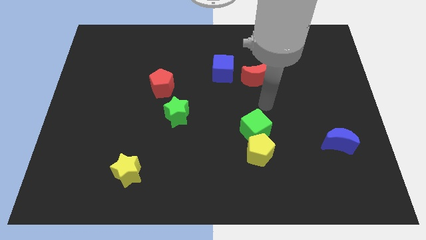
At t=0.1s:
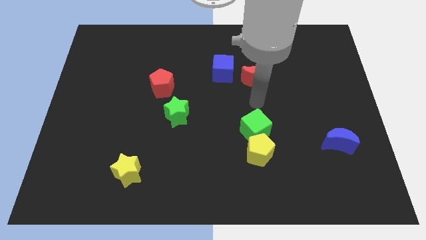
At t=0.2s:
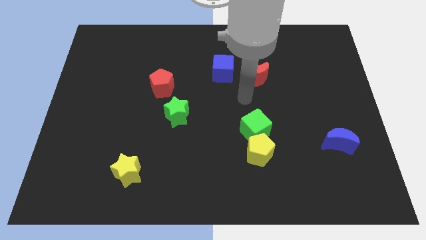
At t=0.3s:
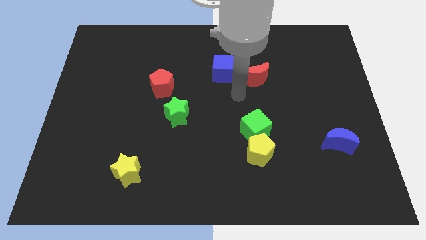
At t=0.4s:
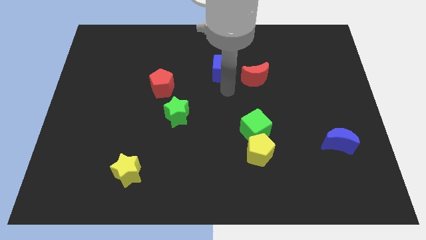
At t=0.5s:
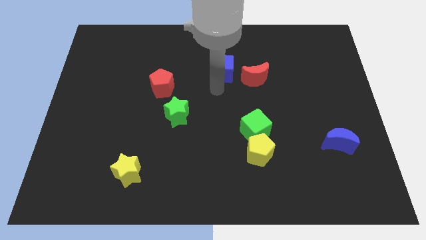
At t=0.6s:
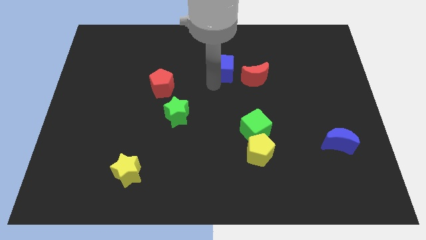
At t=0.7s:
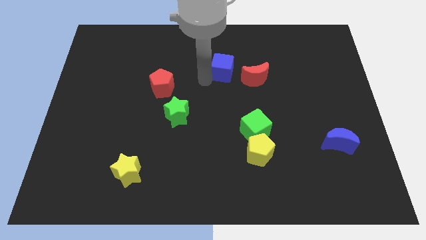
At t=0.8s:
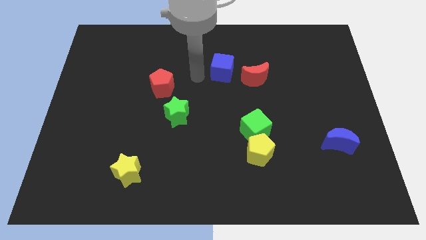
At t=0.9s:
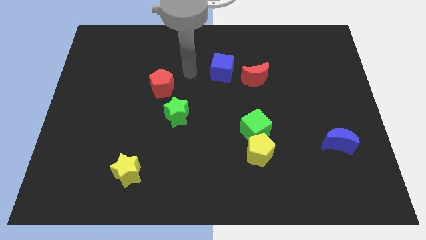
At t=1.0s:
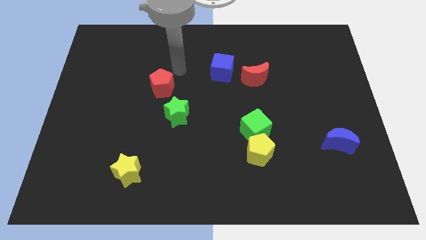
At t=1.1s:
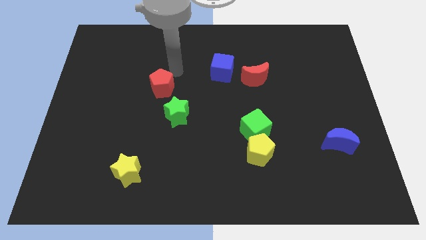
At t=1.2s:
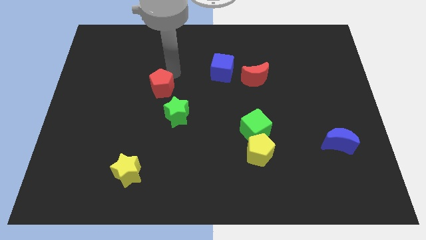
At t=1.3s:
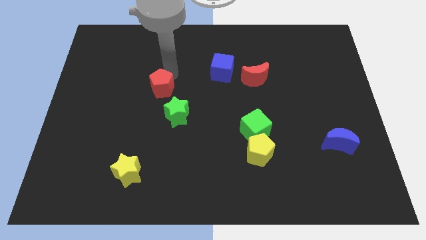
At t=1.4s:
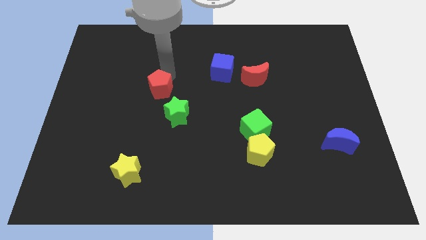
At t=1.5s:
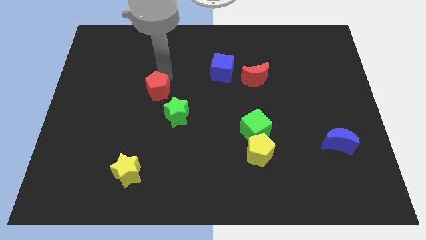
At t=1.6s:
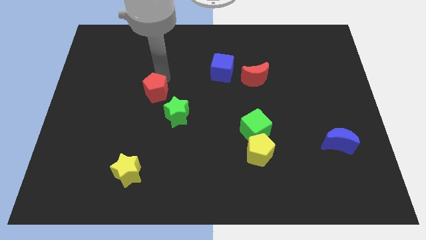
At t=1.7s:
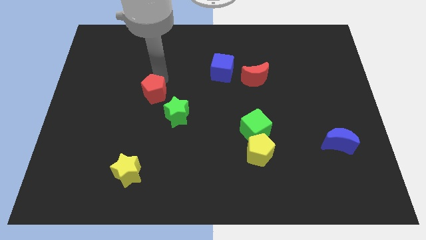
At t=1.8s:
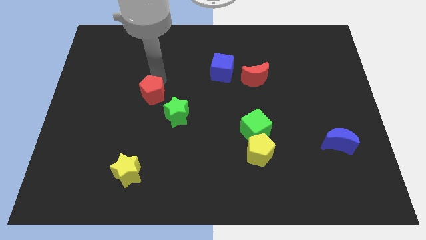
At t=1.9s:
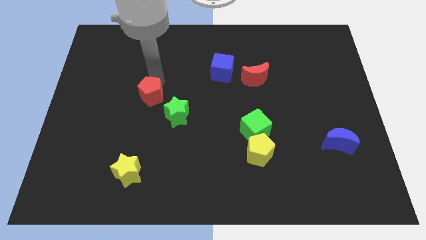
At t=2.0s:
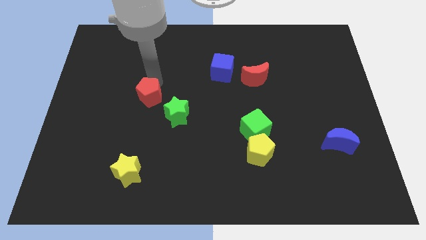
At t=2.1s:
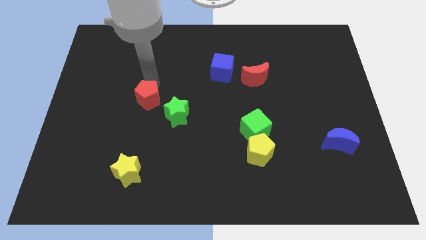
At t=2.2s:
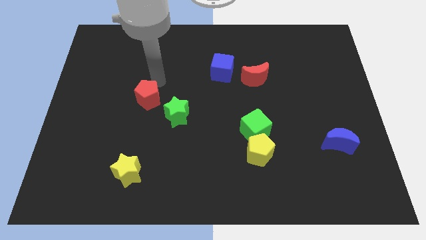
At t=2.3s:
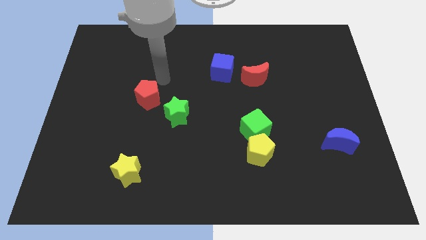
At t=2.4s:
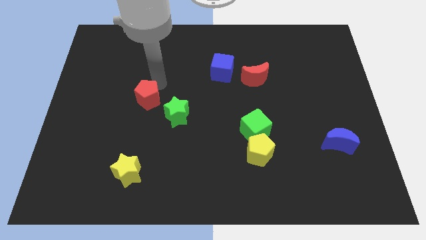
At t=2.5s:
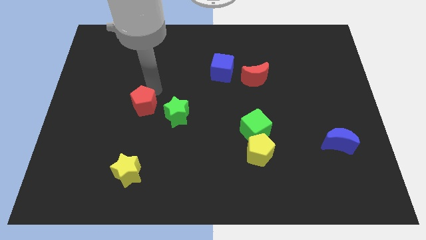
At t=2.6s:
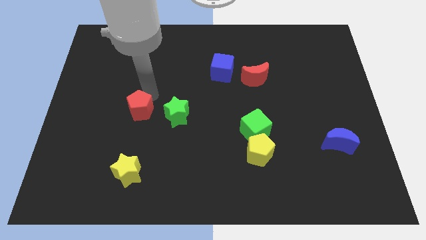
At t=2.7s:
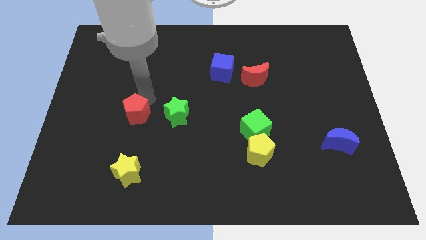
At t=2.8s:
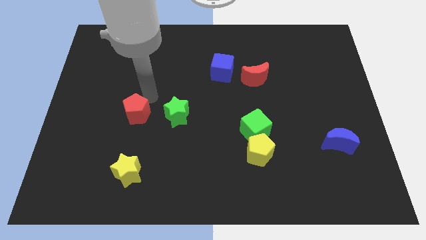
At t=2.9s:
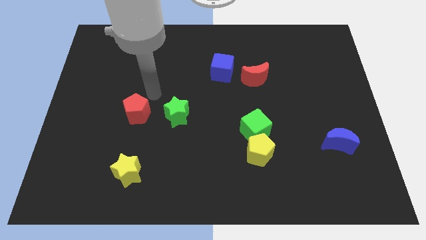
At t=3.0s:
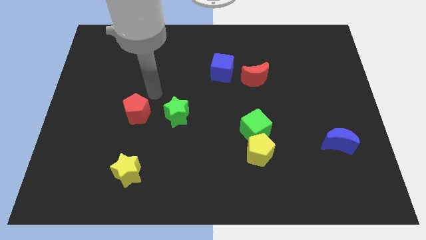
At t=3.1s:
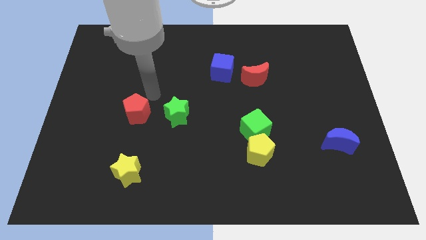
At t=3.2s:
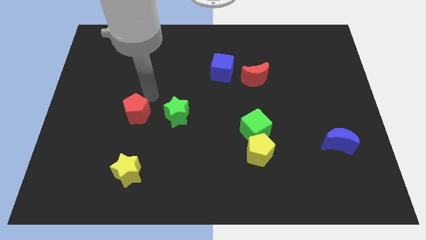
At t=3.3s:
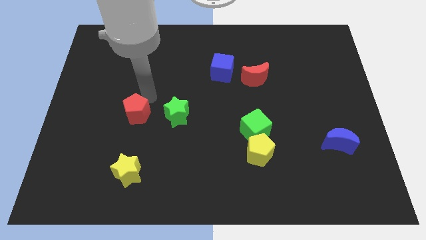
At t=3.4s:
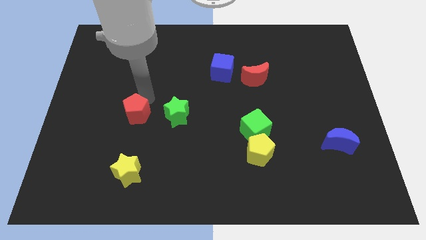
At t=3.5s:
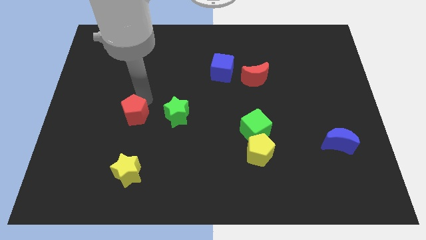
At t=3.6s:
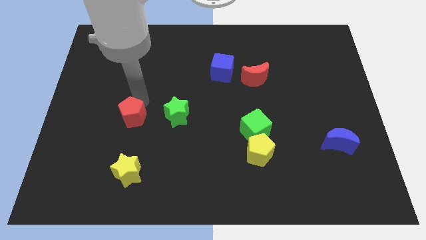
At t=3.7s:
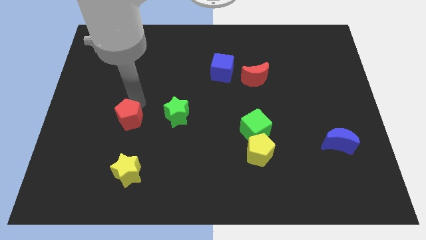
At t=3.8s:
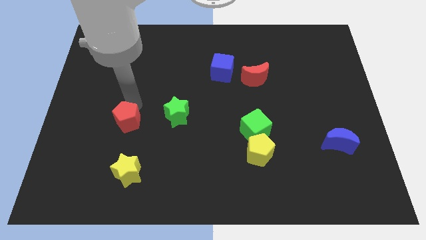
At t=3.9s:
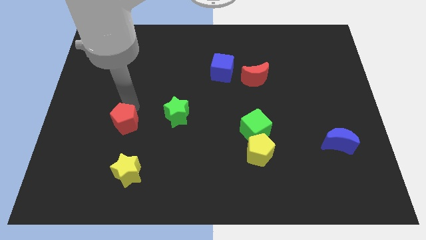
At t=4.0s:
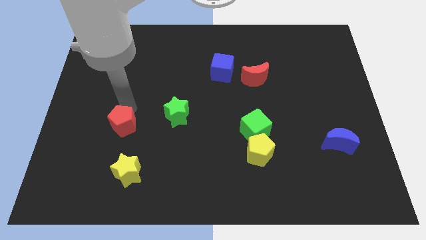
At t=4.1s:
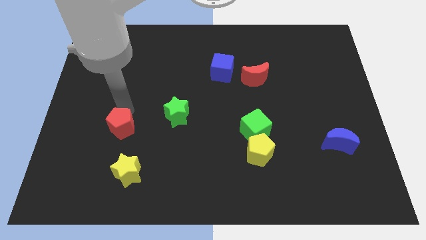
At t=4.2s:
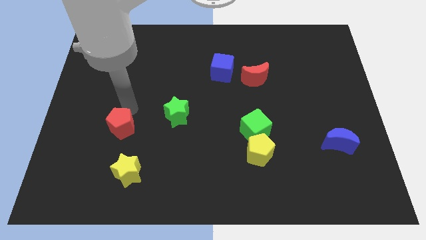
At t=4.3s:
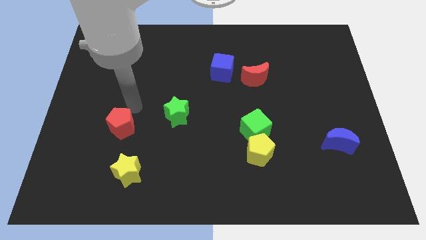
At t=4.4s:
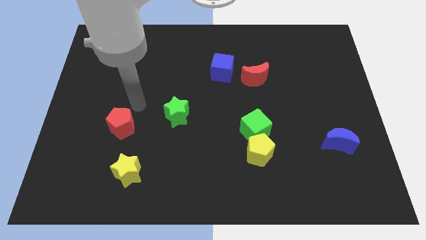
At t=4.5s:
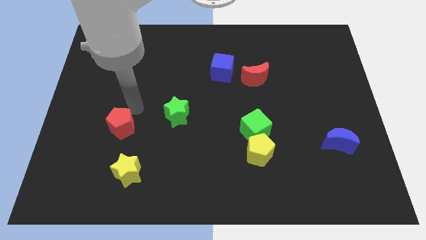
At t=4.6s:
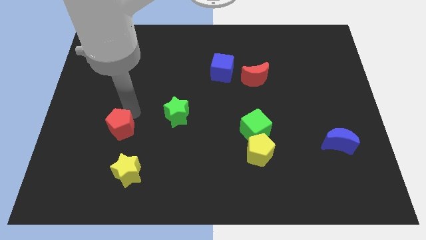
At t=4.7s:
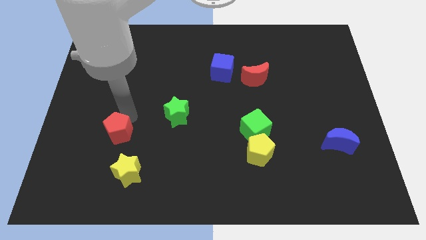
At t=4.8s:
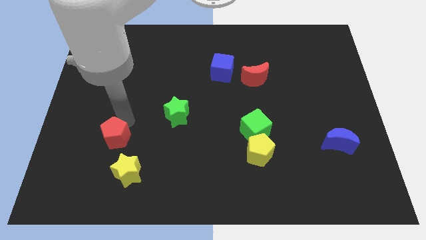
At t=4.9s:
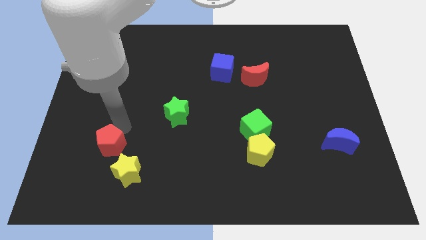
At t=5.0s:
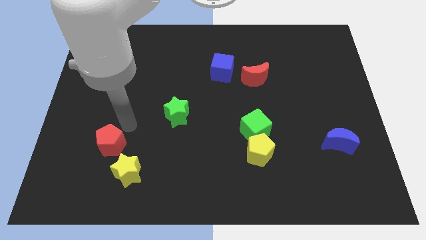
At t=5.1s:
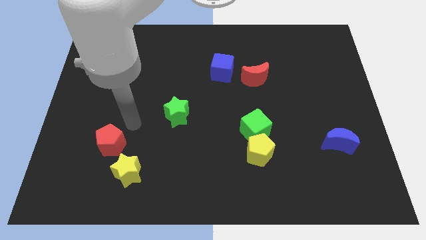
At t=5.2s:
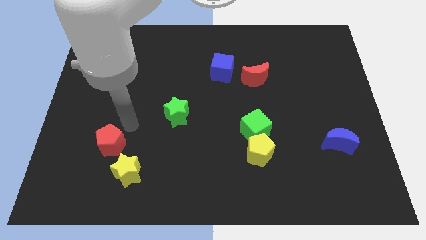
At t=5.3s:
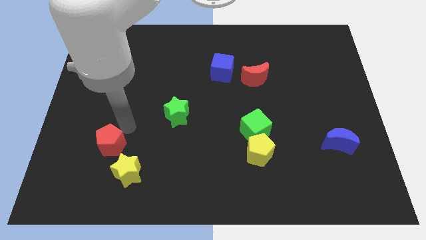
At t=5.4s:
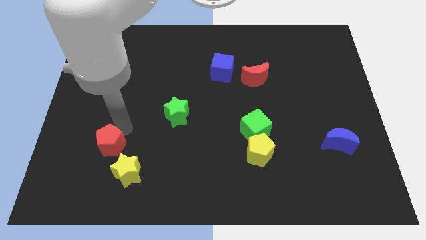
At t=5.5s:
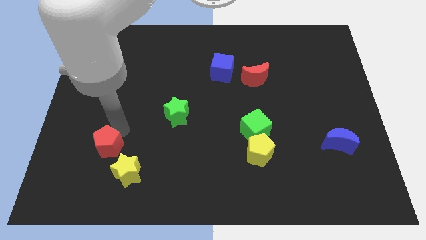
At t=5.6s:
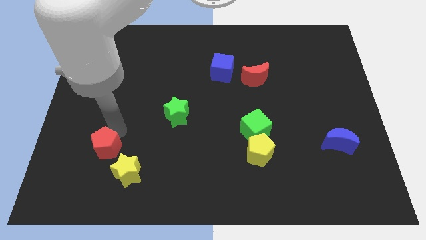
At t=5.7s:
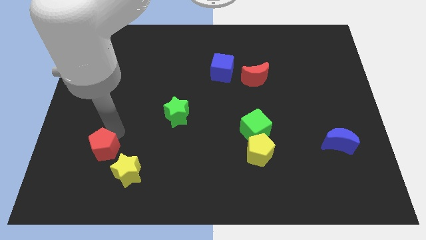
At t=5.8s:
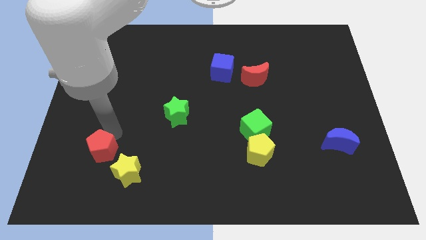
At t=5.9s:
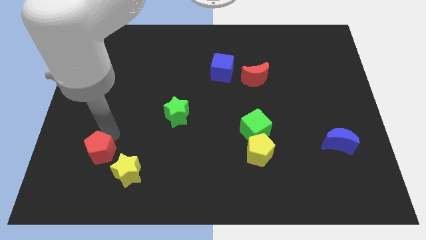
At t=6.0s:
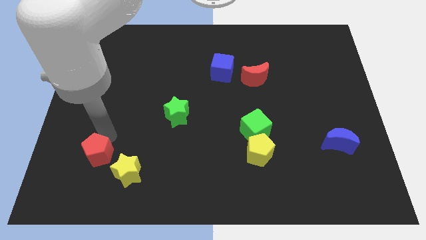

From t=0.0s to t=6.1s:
put the red pentagon just left of the yellow star

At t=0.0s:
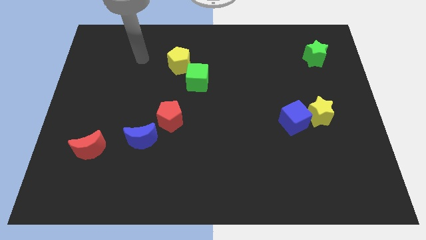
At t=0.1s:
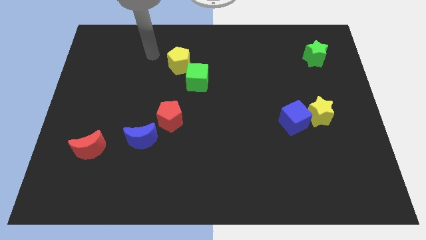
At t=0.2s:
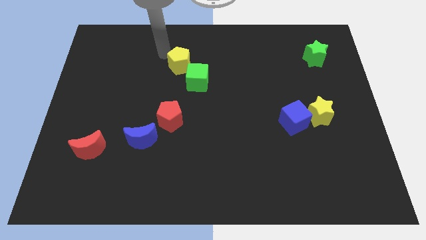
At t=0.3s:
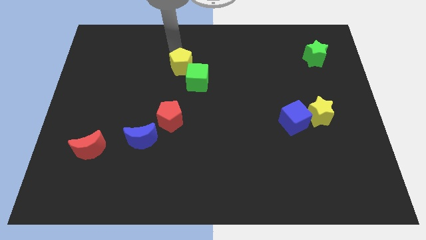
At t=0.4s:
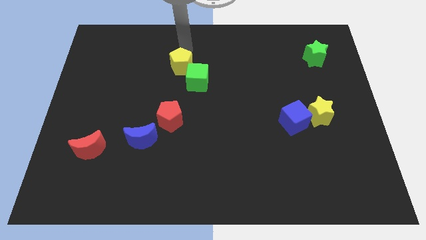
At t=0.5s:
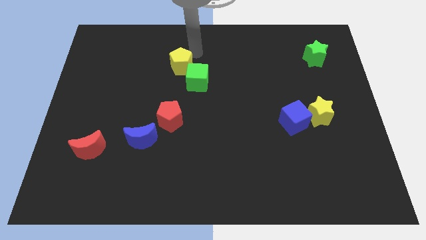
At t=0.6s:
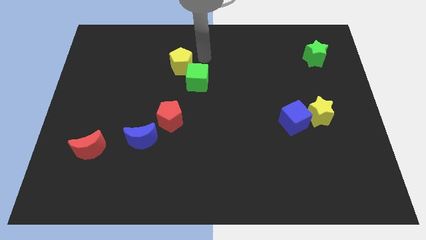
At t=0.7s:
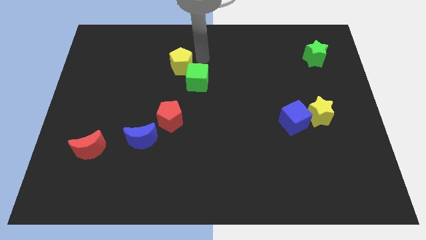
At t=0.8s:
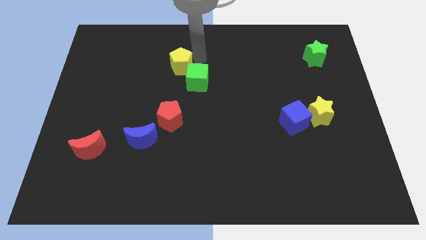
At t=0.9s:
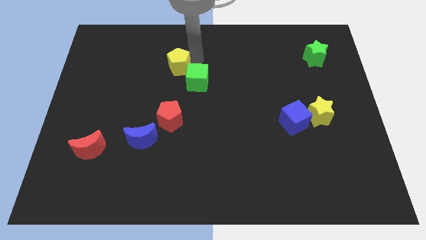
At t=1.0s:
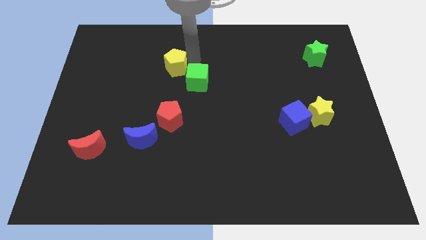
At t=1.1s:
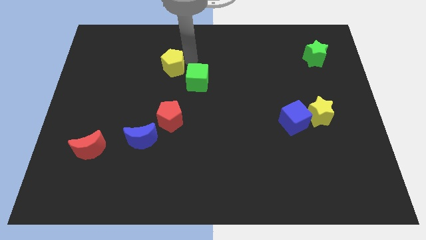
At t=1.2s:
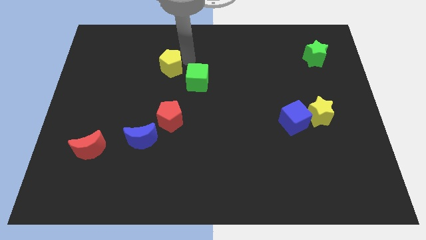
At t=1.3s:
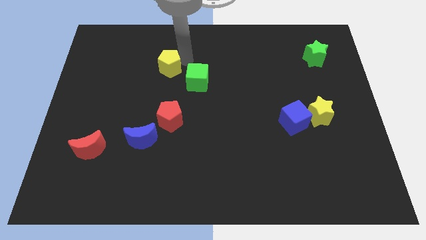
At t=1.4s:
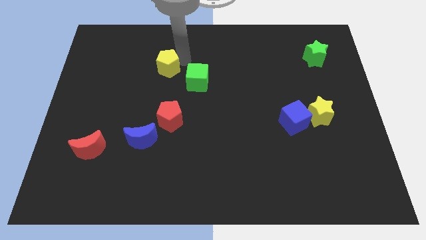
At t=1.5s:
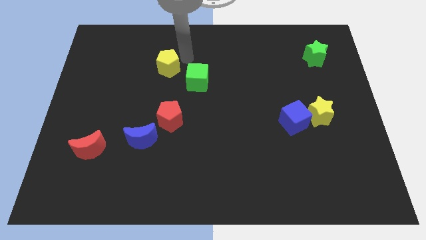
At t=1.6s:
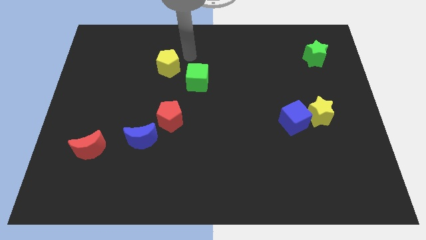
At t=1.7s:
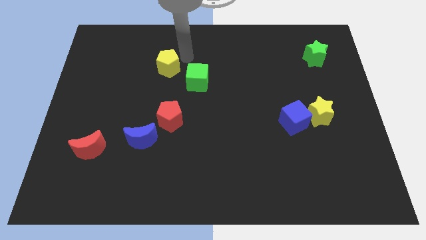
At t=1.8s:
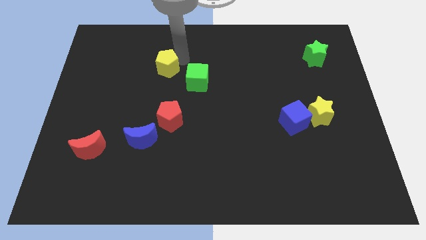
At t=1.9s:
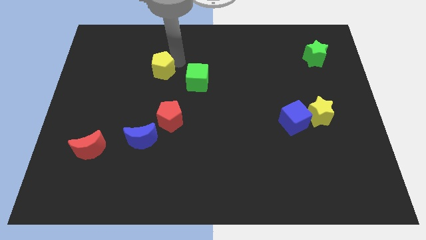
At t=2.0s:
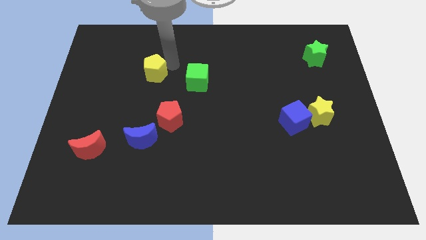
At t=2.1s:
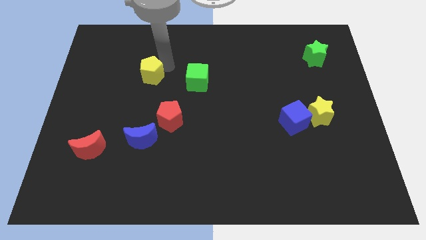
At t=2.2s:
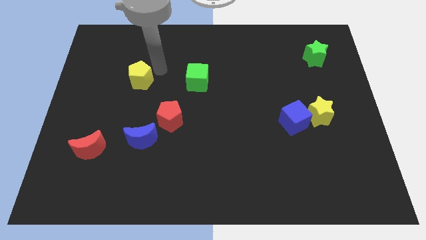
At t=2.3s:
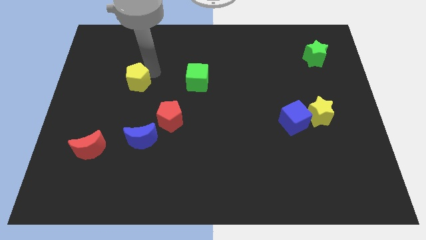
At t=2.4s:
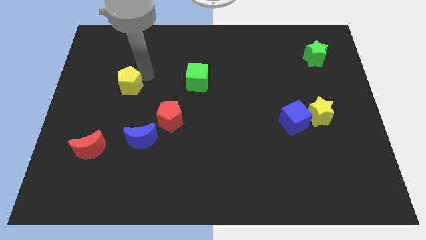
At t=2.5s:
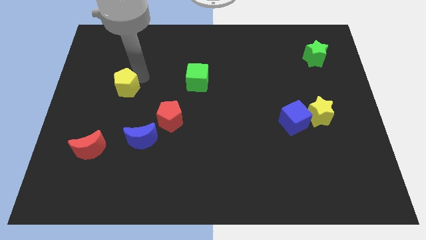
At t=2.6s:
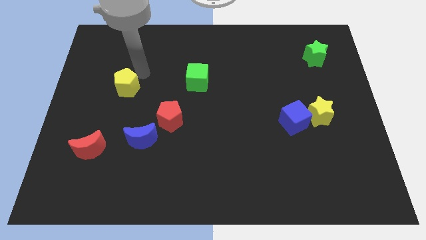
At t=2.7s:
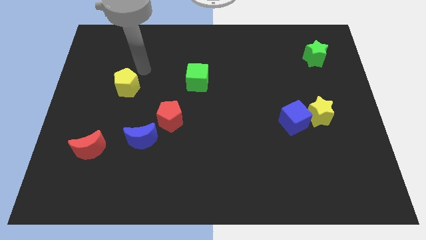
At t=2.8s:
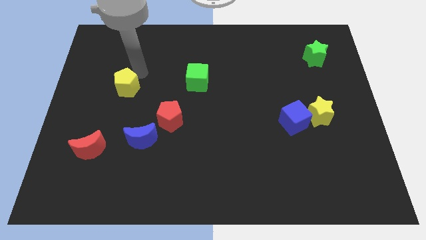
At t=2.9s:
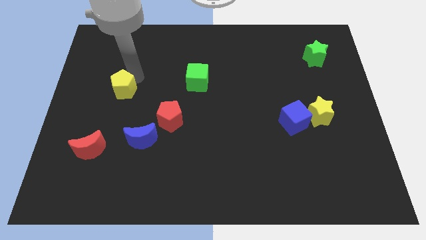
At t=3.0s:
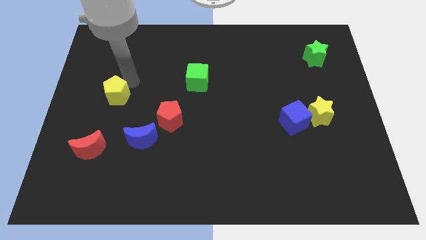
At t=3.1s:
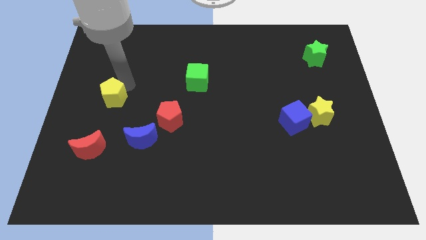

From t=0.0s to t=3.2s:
slide the yellow pentagon above the red moon
